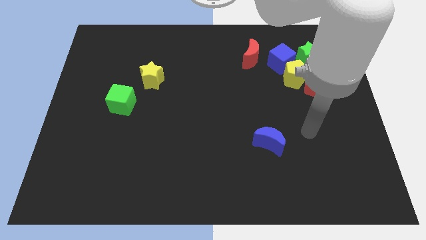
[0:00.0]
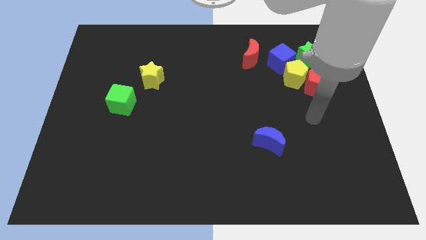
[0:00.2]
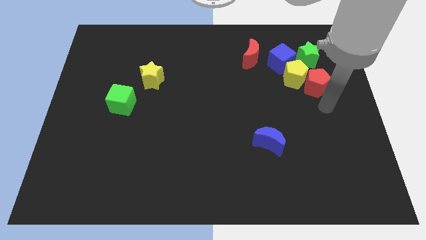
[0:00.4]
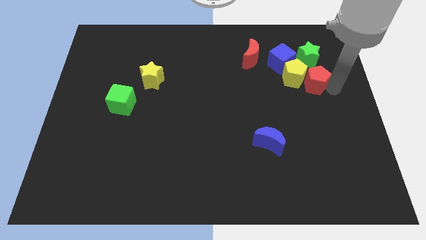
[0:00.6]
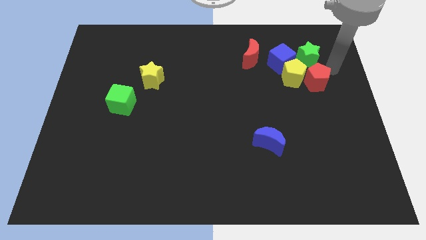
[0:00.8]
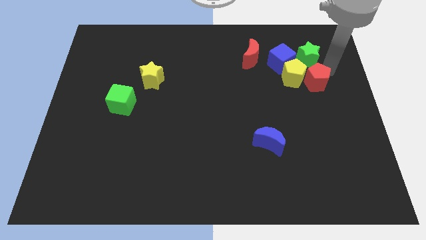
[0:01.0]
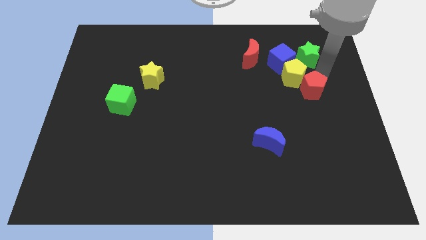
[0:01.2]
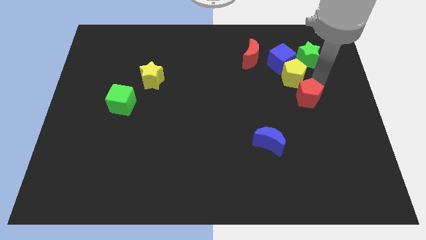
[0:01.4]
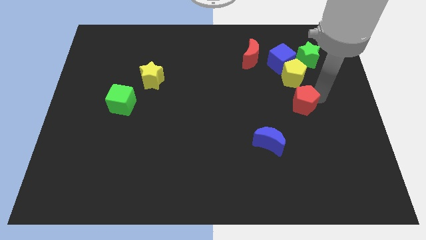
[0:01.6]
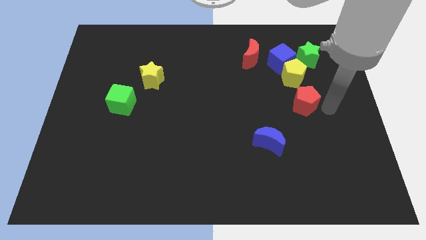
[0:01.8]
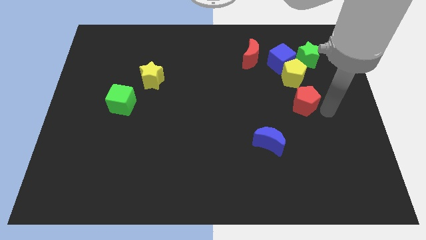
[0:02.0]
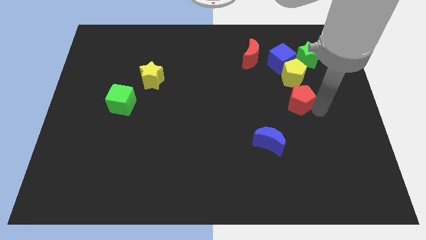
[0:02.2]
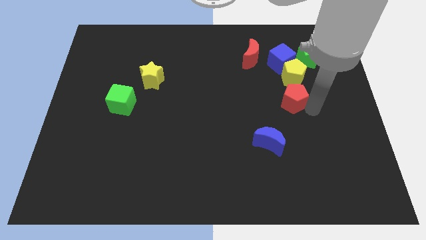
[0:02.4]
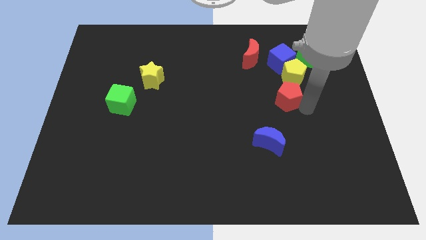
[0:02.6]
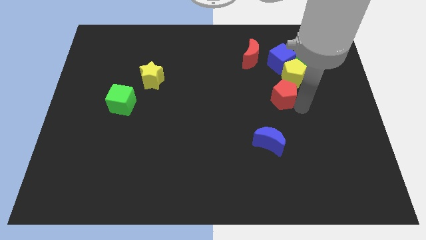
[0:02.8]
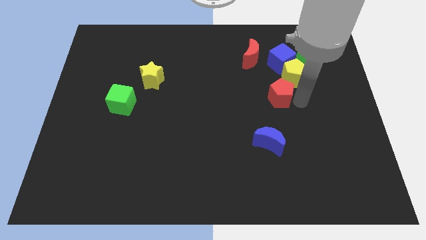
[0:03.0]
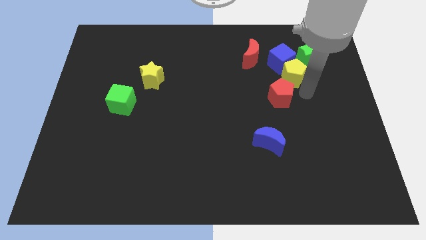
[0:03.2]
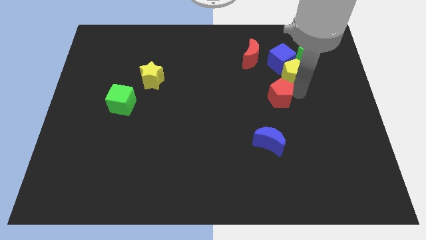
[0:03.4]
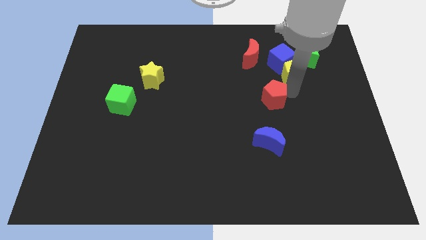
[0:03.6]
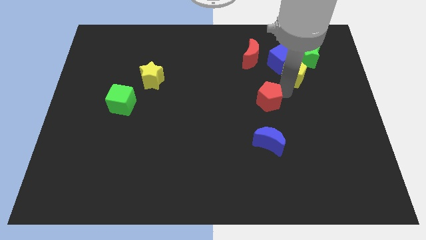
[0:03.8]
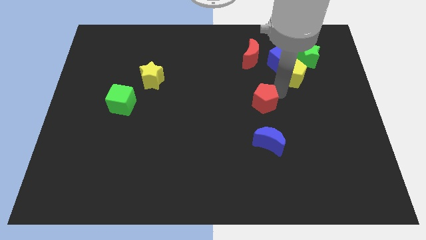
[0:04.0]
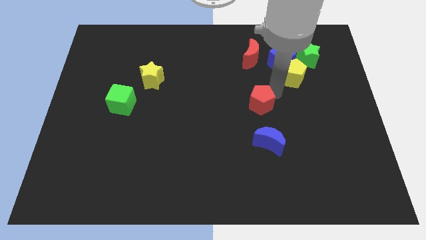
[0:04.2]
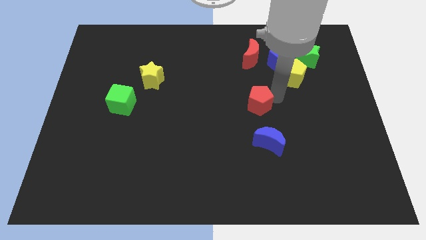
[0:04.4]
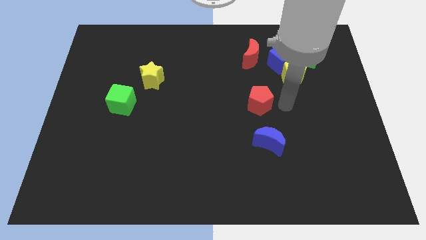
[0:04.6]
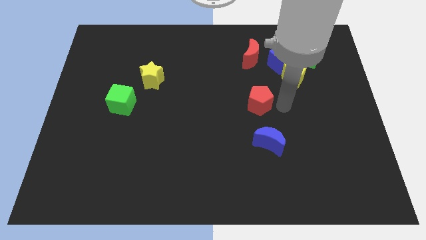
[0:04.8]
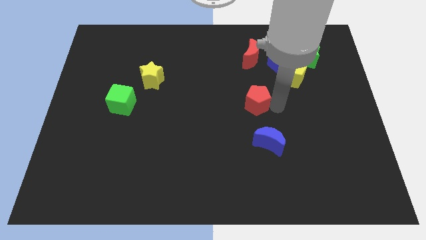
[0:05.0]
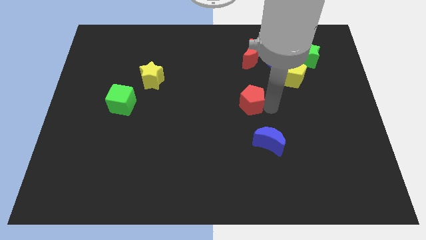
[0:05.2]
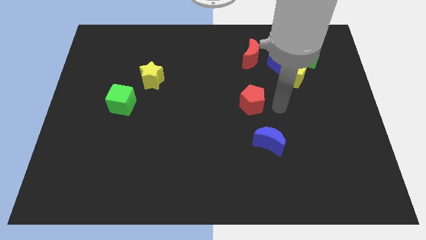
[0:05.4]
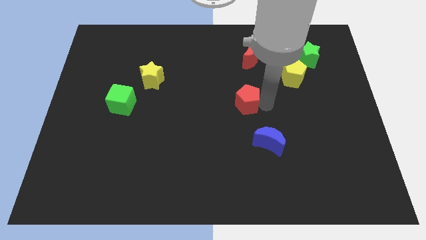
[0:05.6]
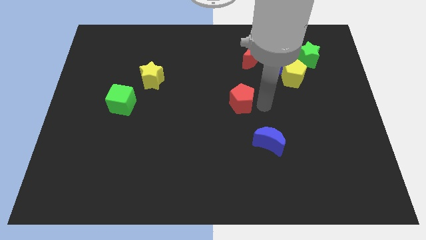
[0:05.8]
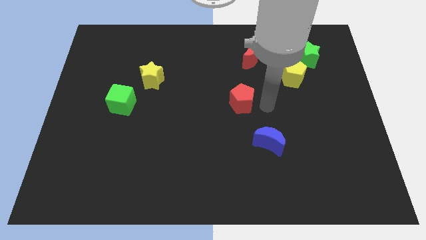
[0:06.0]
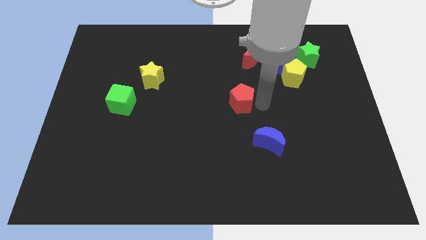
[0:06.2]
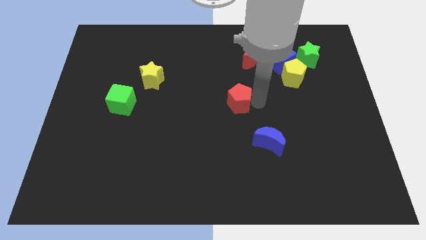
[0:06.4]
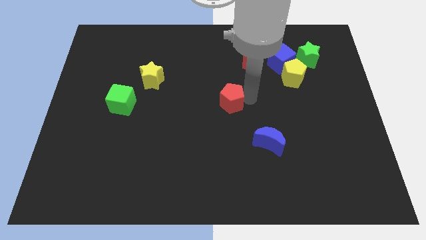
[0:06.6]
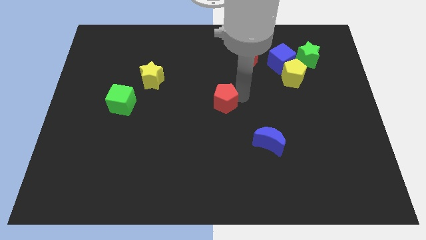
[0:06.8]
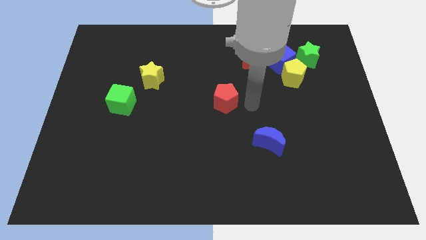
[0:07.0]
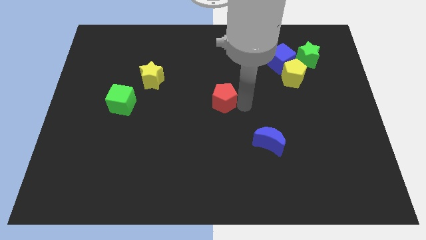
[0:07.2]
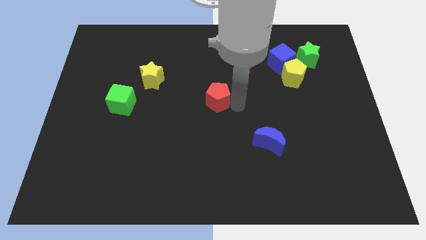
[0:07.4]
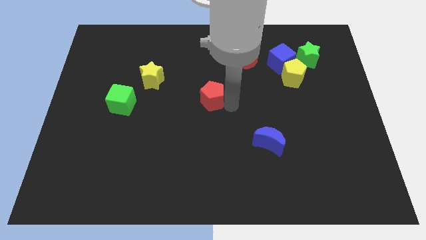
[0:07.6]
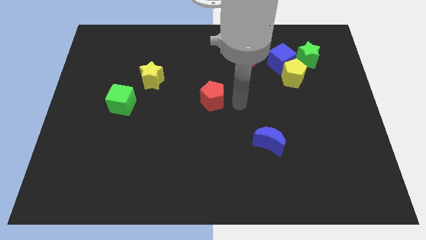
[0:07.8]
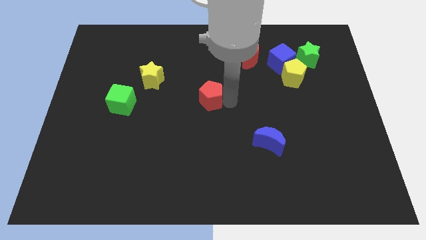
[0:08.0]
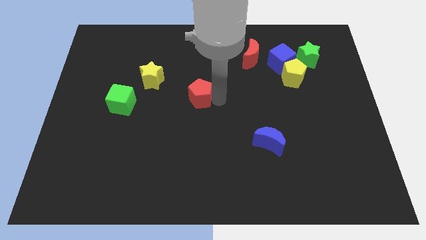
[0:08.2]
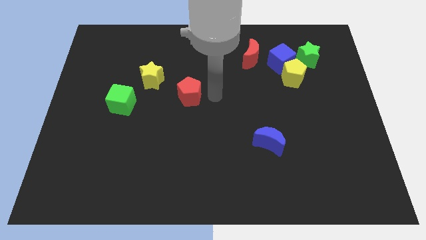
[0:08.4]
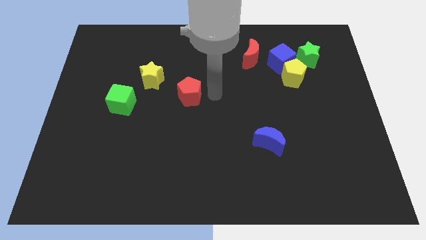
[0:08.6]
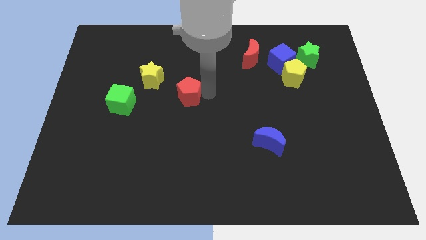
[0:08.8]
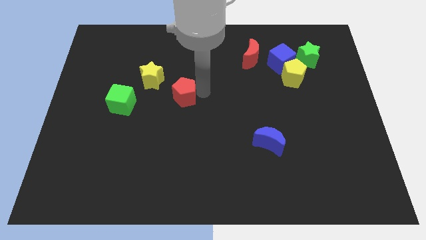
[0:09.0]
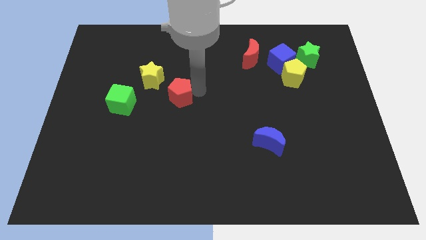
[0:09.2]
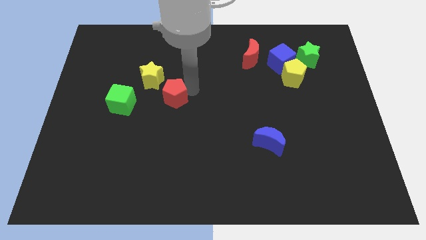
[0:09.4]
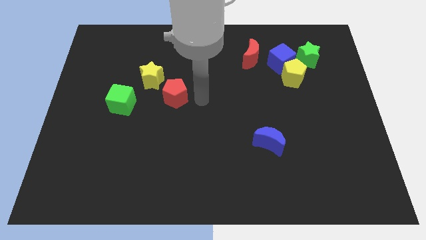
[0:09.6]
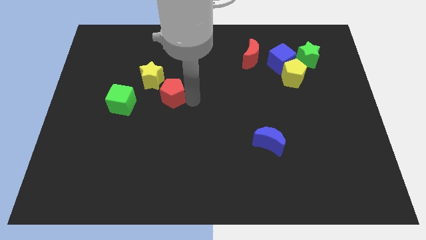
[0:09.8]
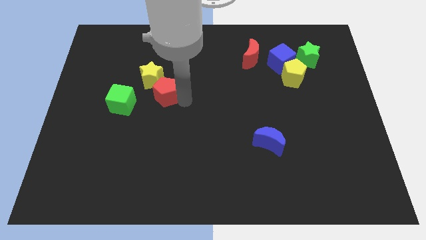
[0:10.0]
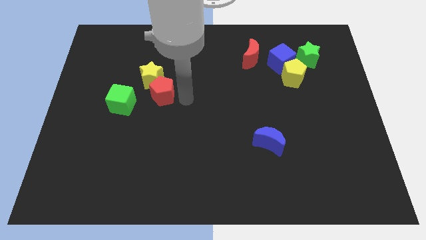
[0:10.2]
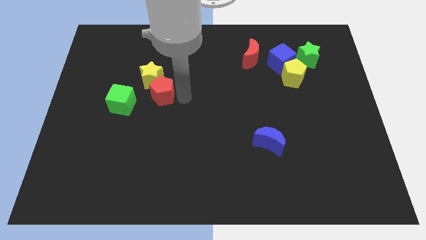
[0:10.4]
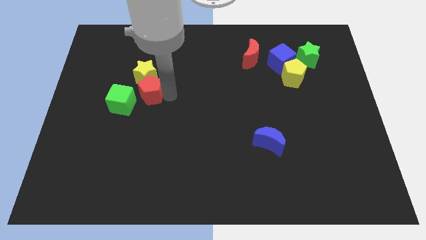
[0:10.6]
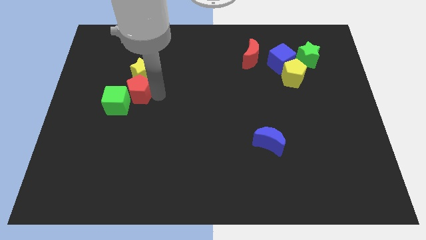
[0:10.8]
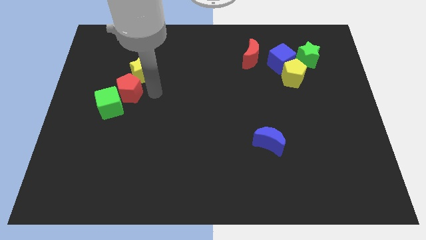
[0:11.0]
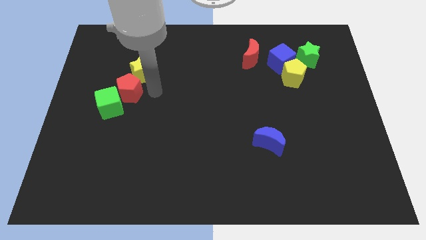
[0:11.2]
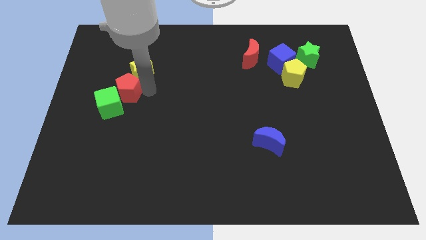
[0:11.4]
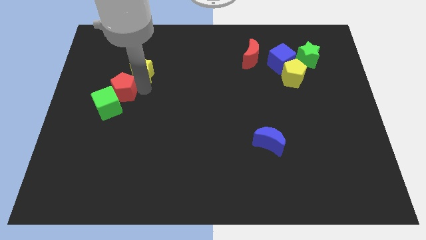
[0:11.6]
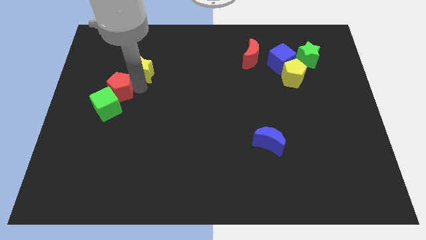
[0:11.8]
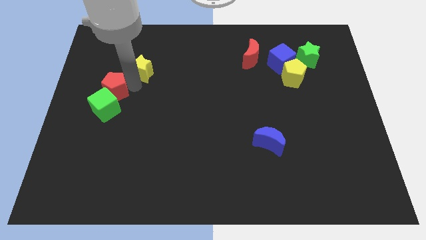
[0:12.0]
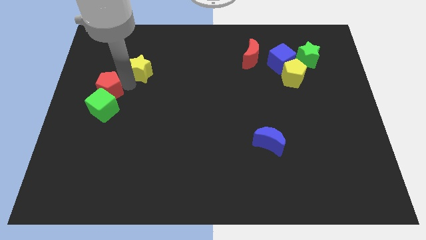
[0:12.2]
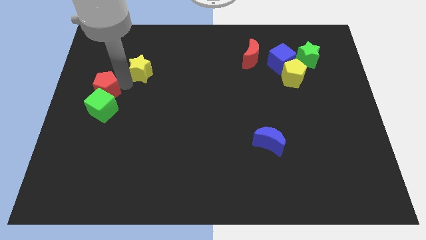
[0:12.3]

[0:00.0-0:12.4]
push the red pentagon to the center left

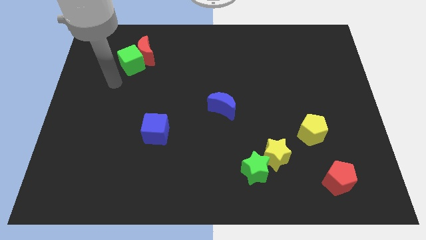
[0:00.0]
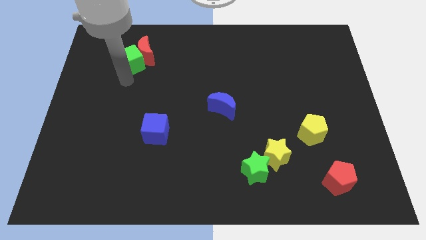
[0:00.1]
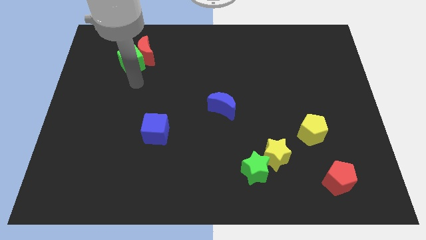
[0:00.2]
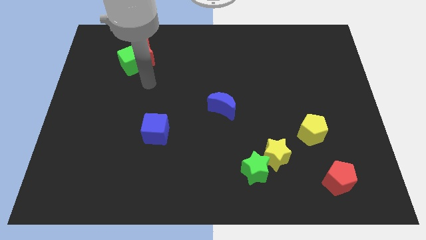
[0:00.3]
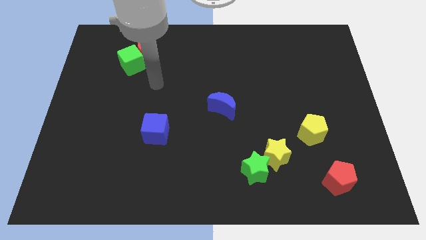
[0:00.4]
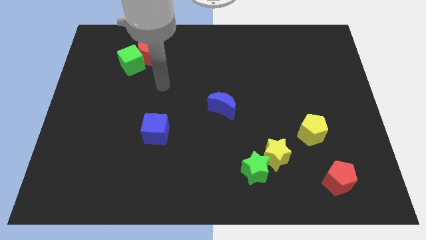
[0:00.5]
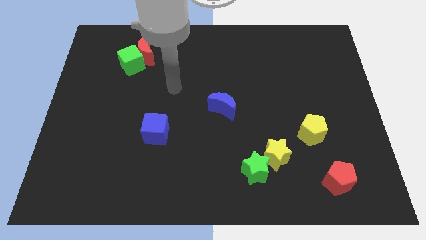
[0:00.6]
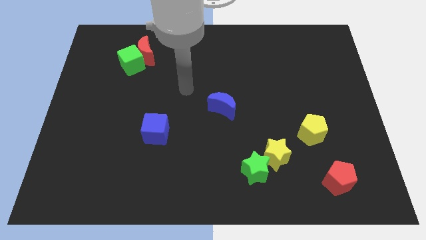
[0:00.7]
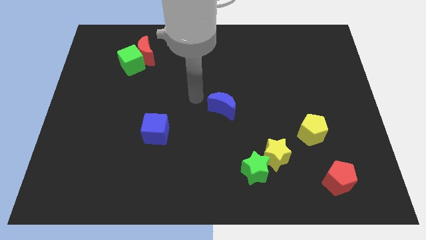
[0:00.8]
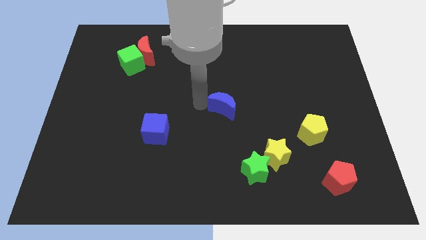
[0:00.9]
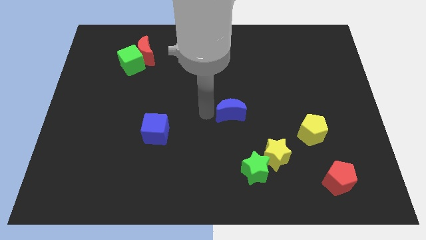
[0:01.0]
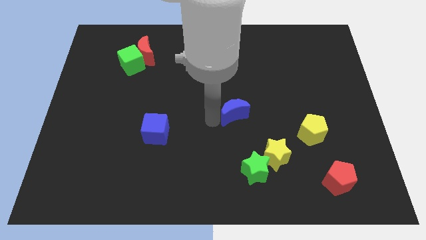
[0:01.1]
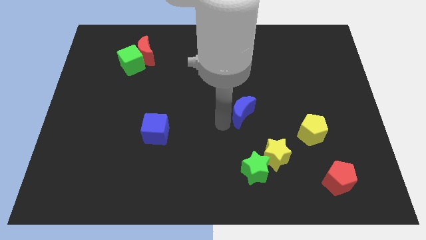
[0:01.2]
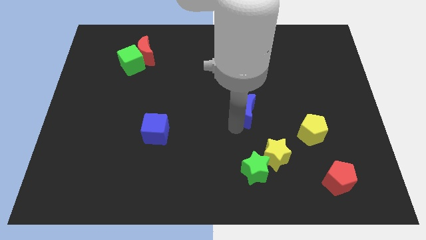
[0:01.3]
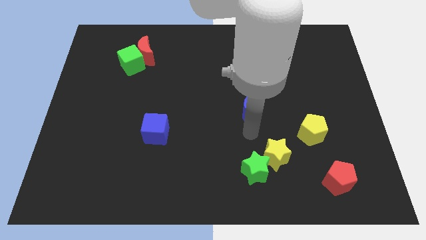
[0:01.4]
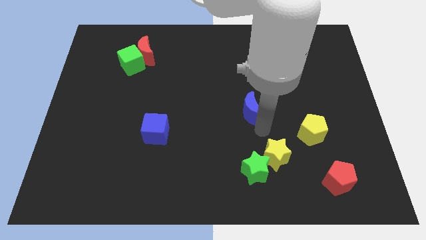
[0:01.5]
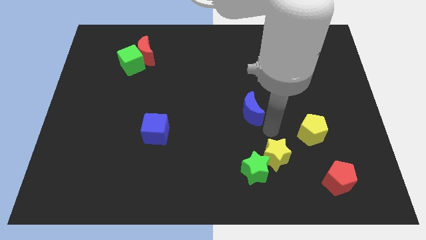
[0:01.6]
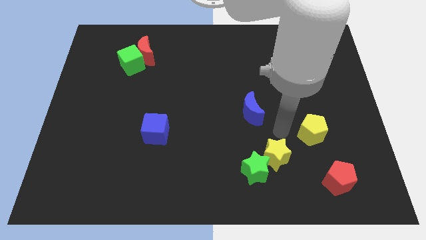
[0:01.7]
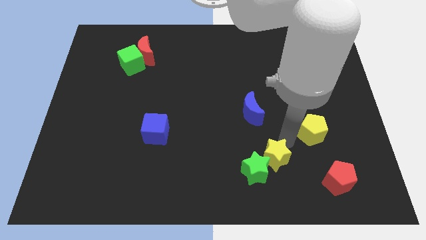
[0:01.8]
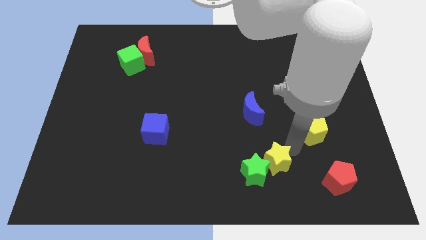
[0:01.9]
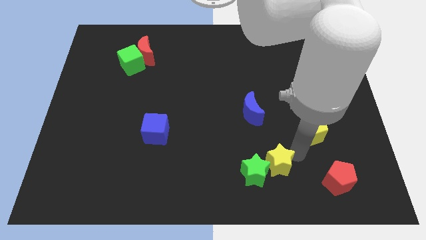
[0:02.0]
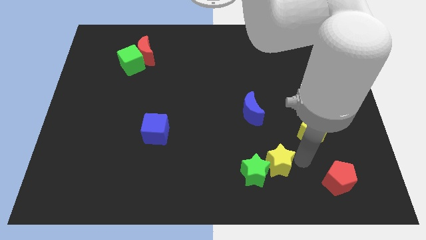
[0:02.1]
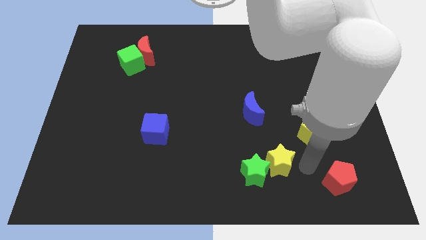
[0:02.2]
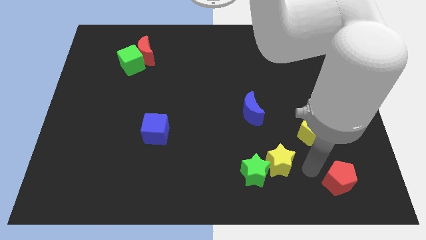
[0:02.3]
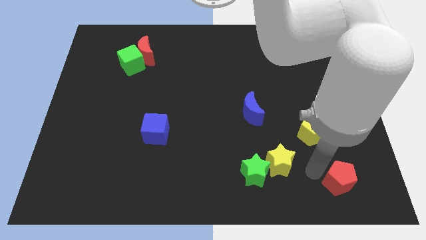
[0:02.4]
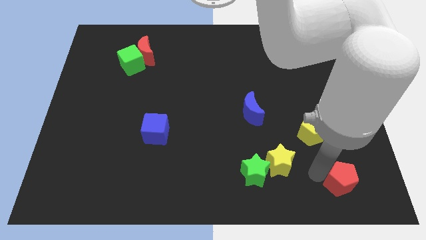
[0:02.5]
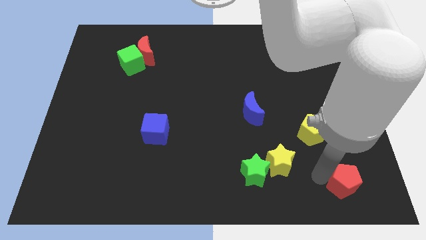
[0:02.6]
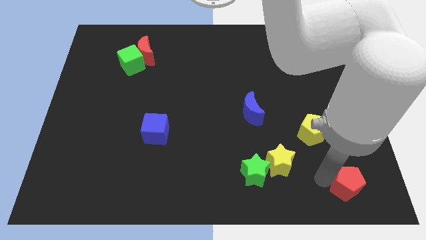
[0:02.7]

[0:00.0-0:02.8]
slide the red pentagon to the bottom right of the board
